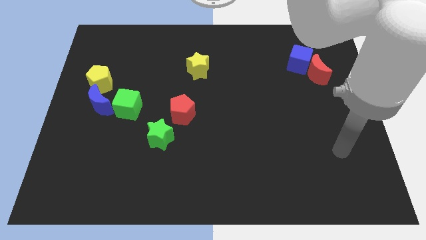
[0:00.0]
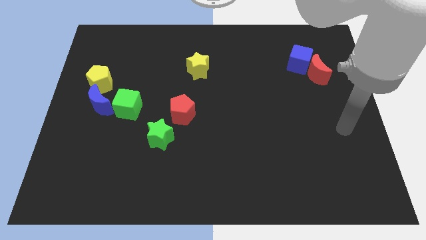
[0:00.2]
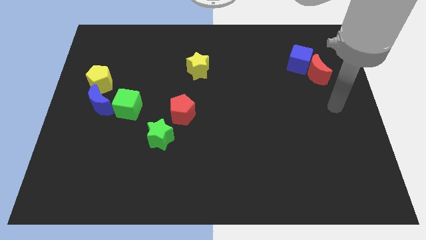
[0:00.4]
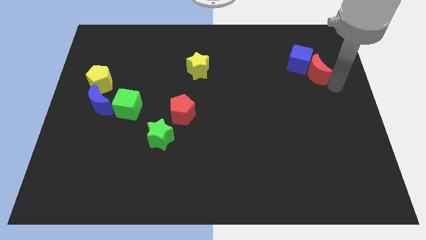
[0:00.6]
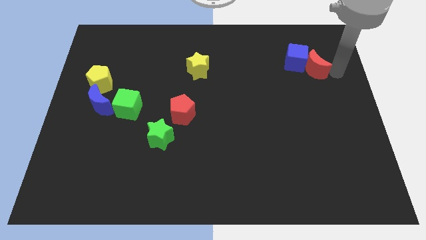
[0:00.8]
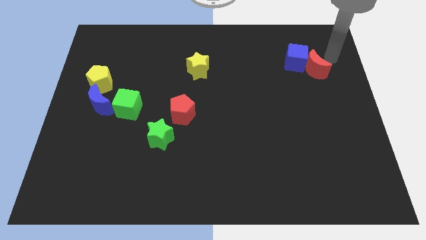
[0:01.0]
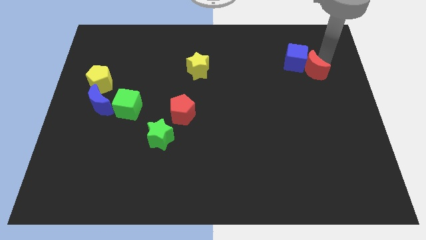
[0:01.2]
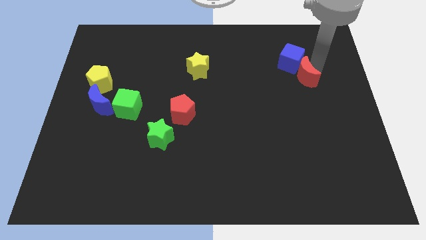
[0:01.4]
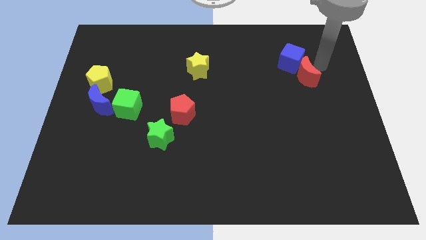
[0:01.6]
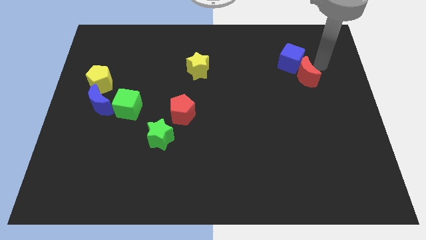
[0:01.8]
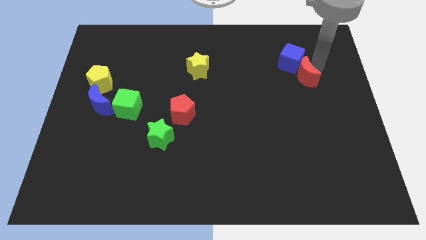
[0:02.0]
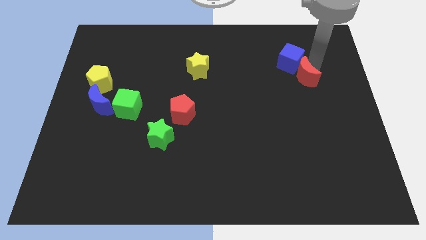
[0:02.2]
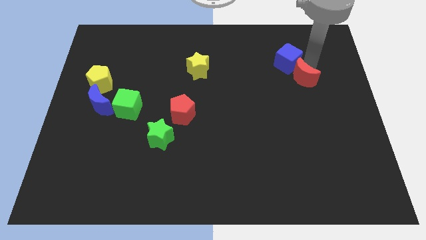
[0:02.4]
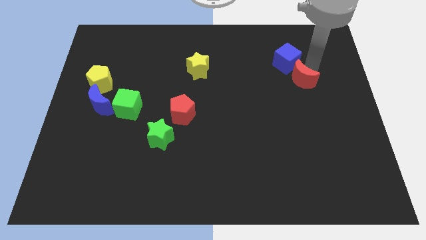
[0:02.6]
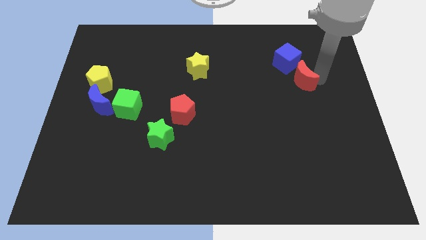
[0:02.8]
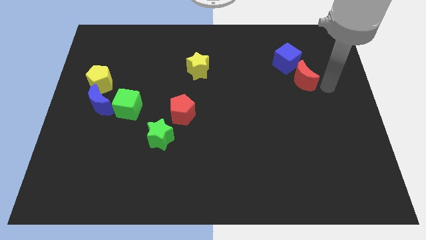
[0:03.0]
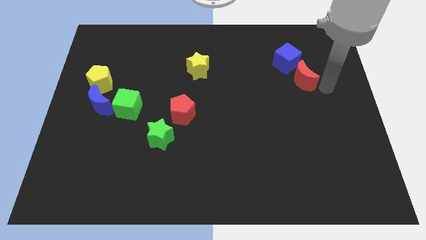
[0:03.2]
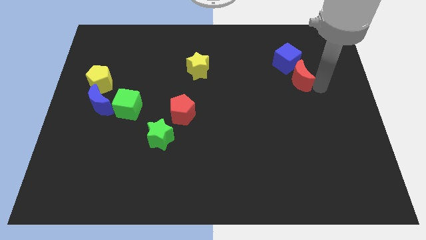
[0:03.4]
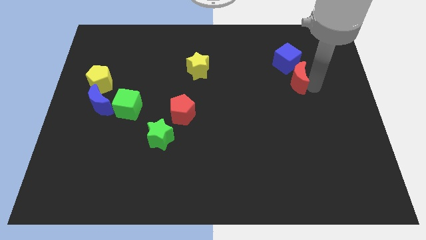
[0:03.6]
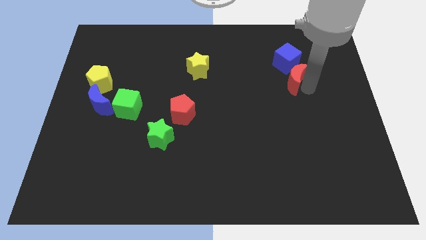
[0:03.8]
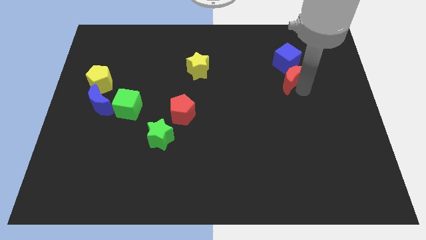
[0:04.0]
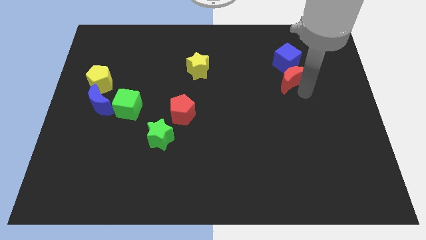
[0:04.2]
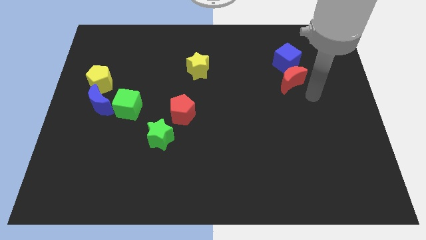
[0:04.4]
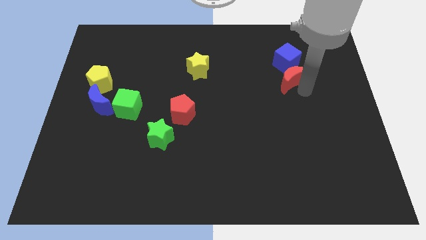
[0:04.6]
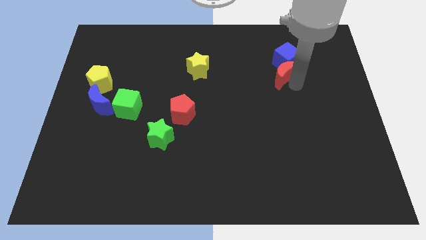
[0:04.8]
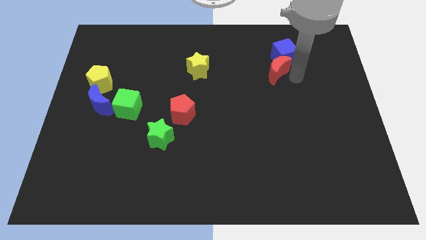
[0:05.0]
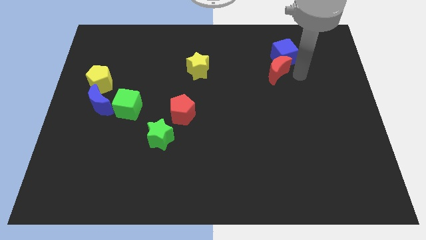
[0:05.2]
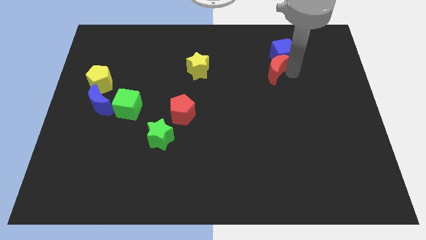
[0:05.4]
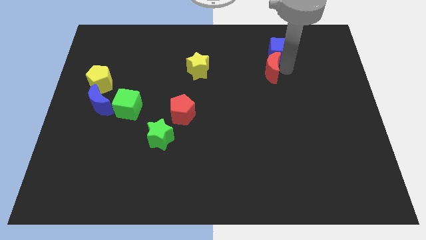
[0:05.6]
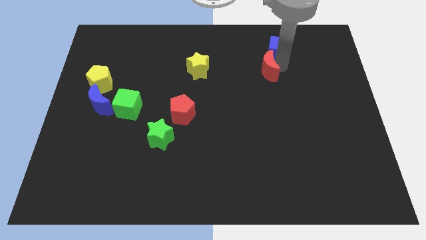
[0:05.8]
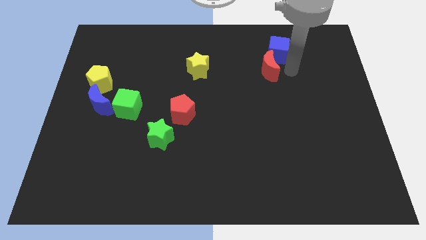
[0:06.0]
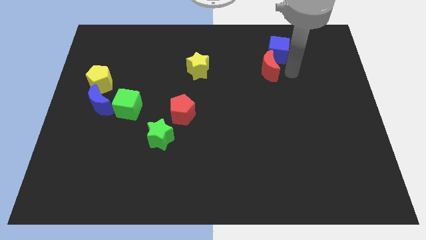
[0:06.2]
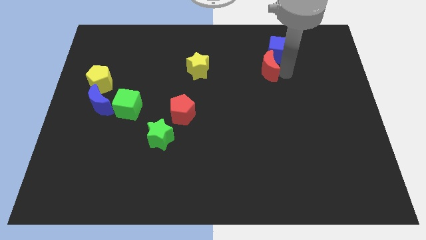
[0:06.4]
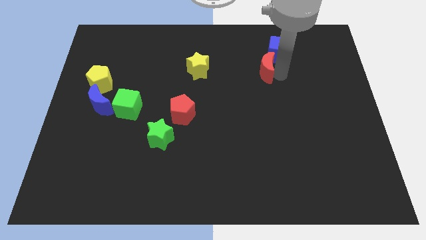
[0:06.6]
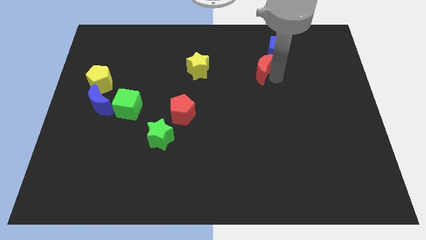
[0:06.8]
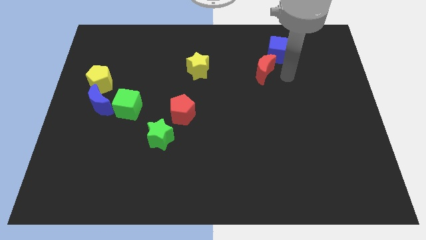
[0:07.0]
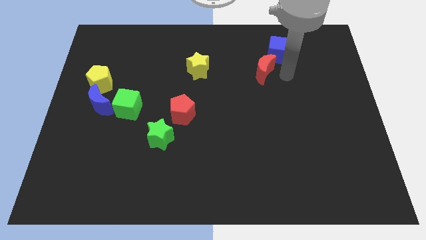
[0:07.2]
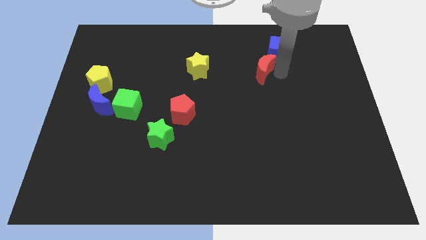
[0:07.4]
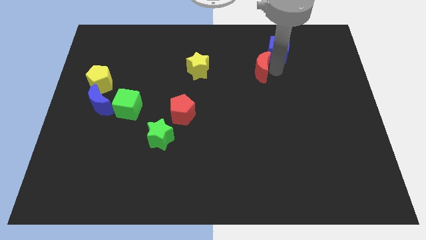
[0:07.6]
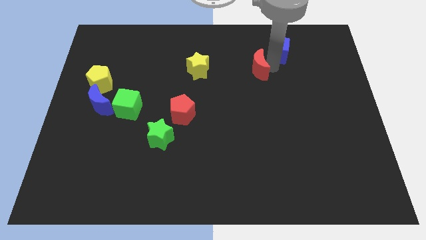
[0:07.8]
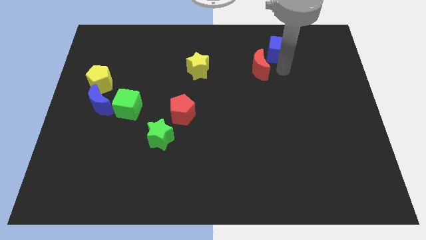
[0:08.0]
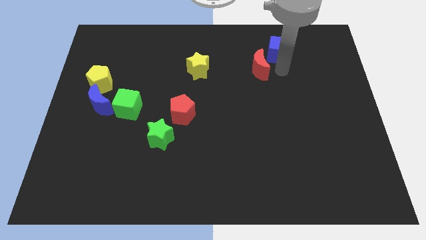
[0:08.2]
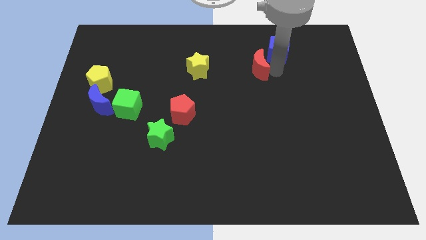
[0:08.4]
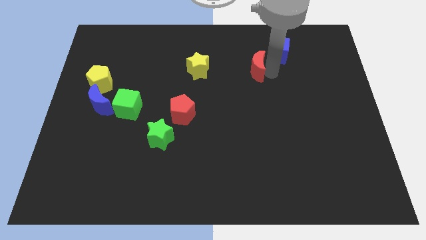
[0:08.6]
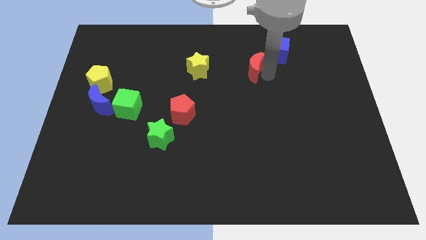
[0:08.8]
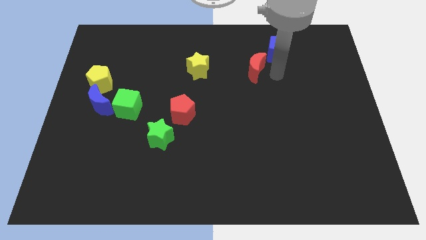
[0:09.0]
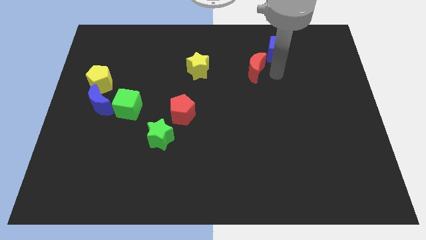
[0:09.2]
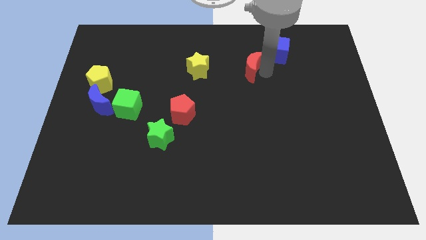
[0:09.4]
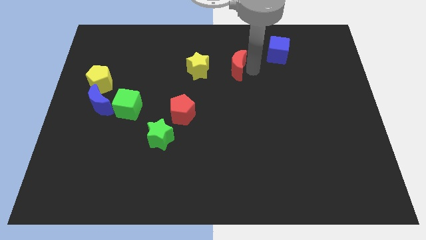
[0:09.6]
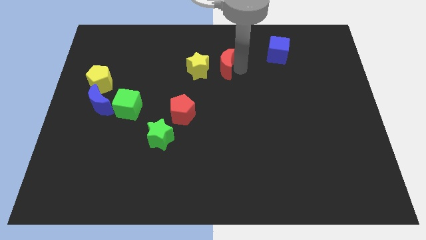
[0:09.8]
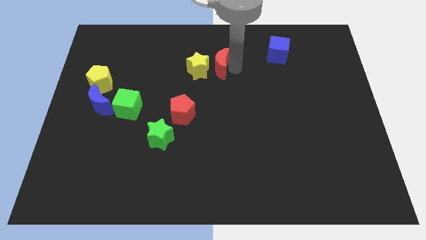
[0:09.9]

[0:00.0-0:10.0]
put the red moon next to the yellow star

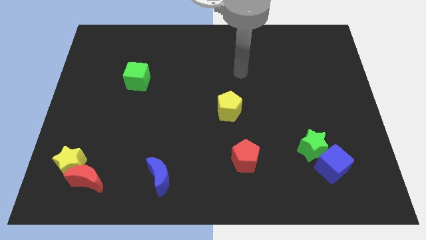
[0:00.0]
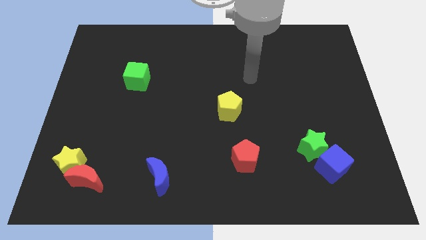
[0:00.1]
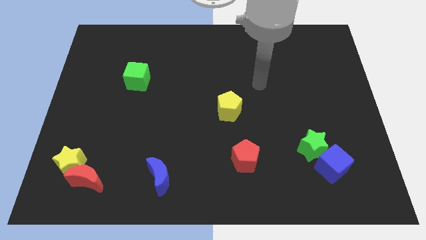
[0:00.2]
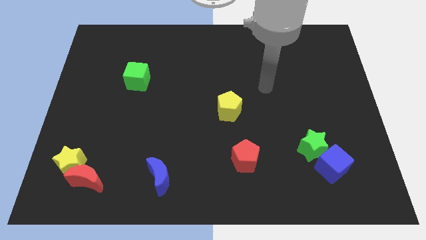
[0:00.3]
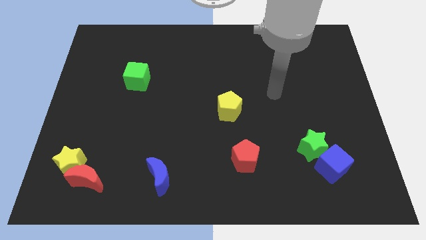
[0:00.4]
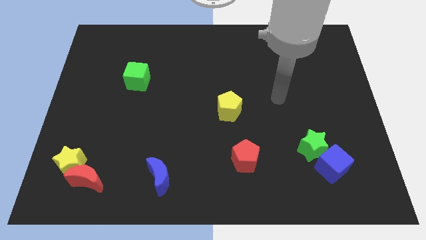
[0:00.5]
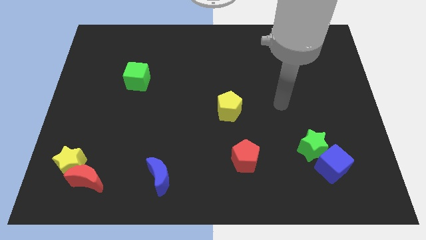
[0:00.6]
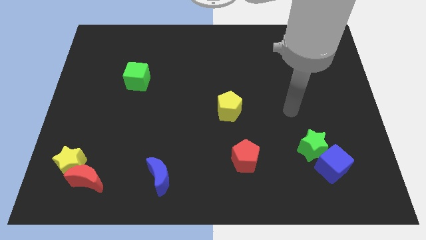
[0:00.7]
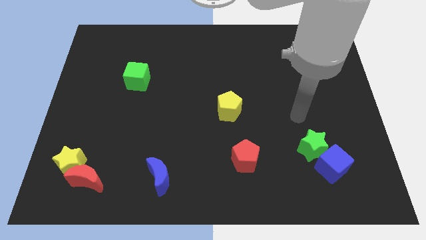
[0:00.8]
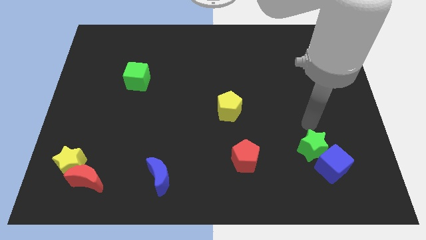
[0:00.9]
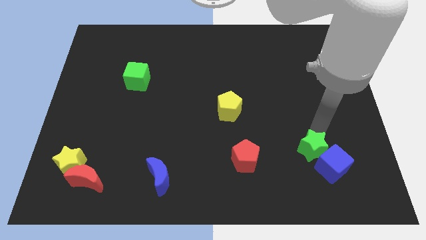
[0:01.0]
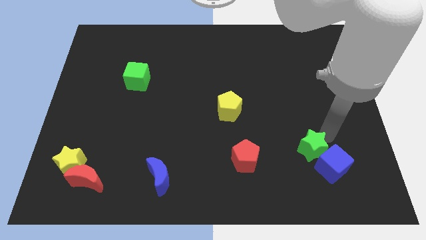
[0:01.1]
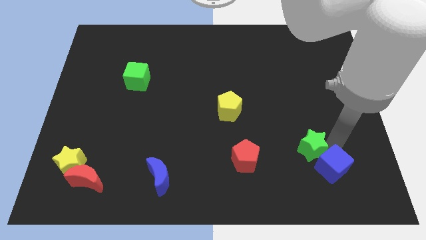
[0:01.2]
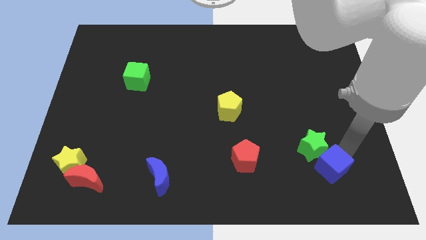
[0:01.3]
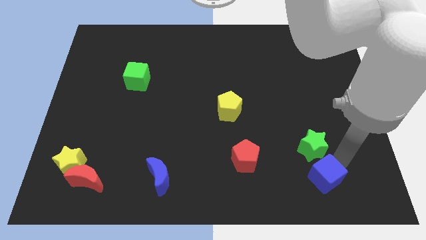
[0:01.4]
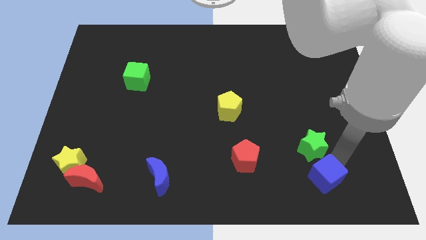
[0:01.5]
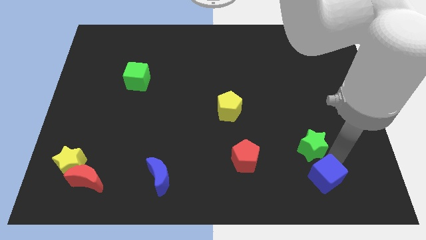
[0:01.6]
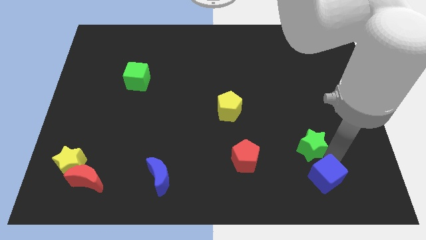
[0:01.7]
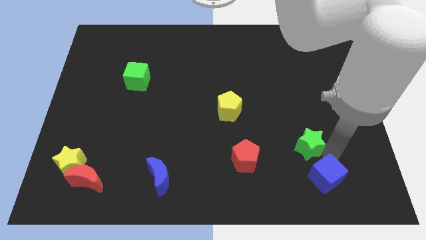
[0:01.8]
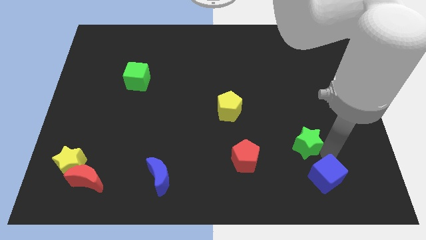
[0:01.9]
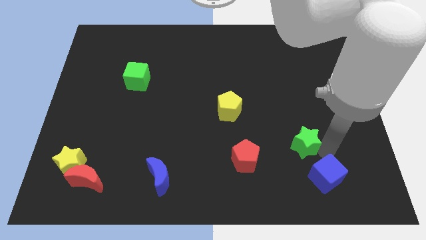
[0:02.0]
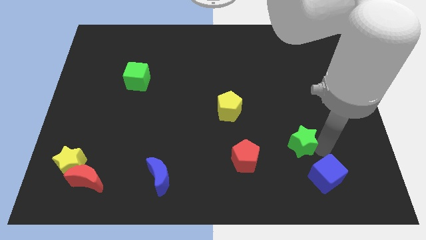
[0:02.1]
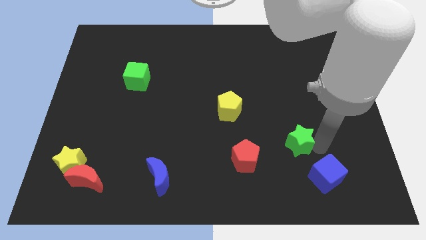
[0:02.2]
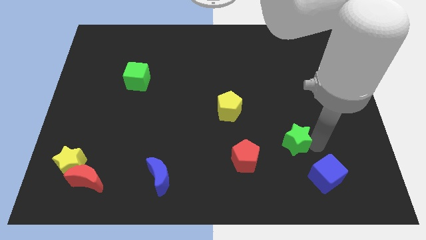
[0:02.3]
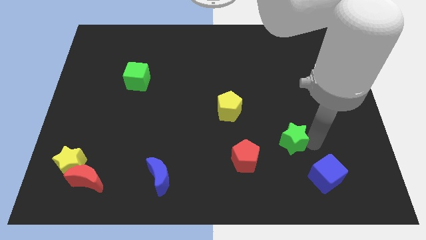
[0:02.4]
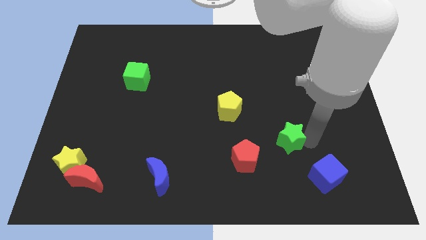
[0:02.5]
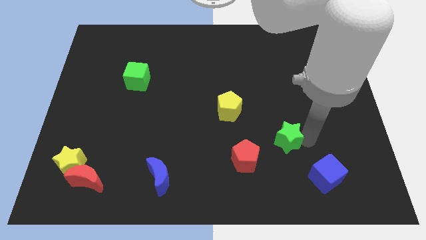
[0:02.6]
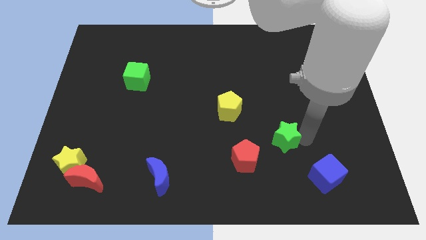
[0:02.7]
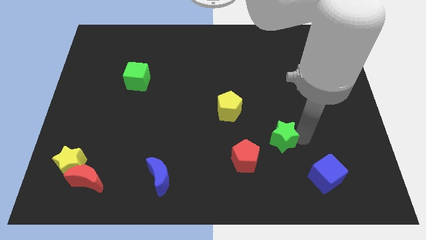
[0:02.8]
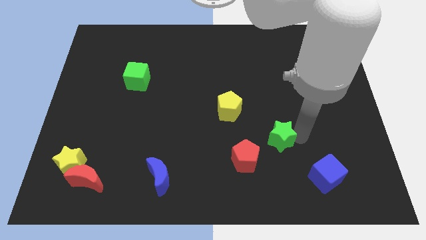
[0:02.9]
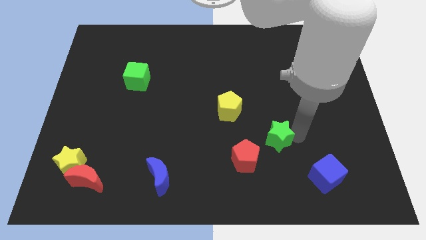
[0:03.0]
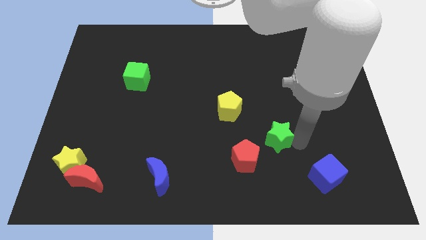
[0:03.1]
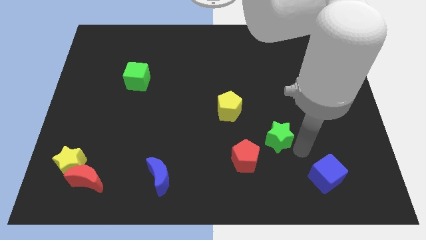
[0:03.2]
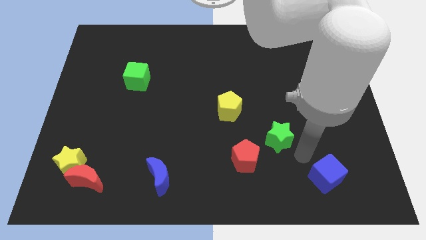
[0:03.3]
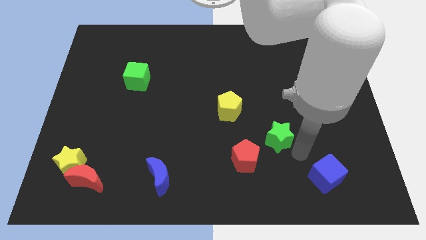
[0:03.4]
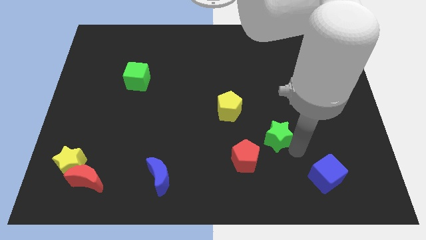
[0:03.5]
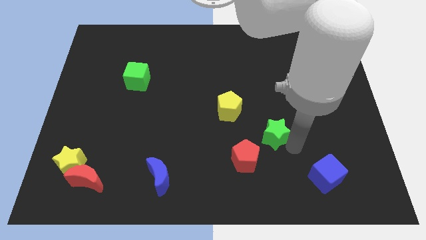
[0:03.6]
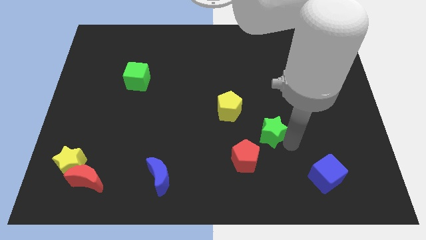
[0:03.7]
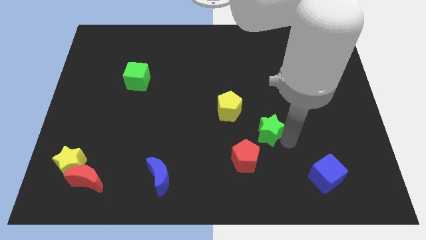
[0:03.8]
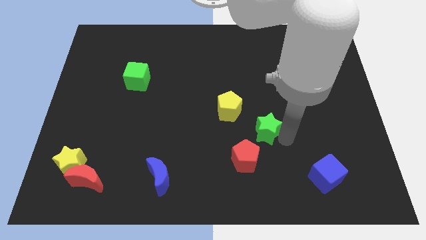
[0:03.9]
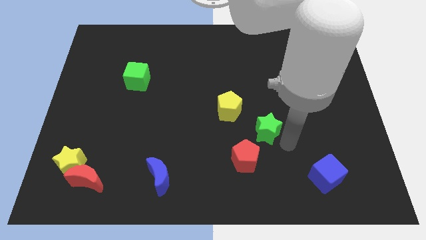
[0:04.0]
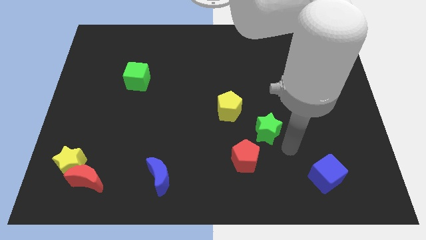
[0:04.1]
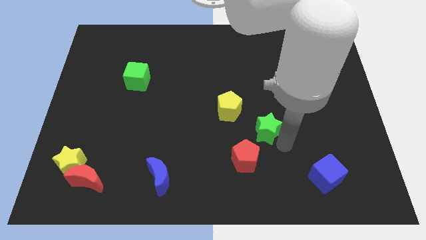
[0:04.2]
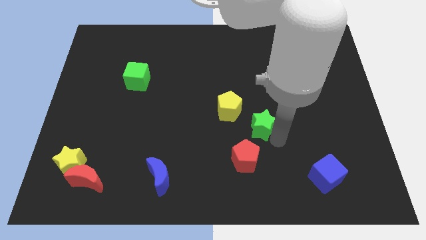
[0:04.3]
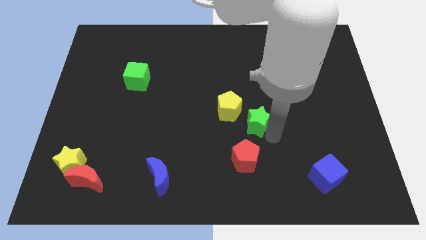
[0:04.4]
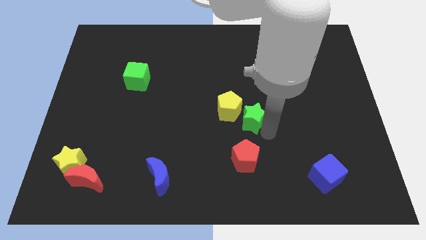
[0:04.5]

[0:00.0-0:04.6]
push the green star towards the yellow pentagon
